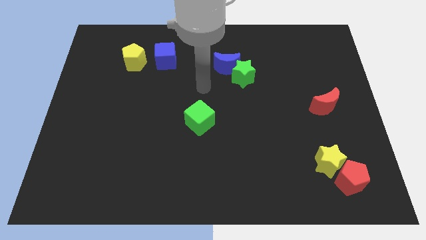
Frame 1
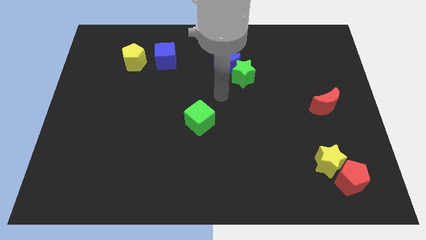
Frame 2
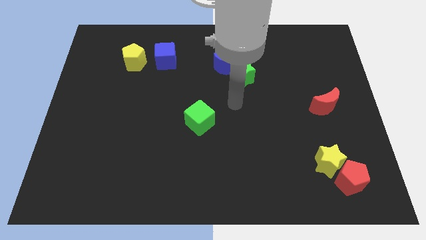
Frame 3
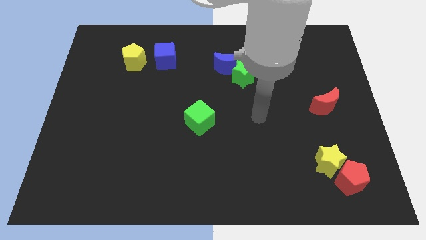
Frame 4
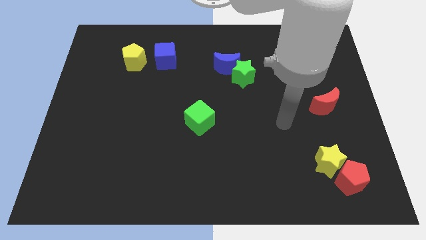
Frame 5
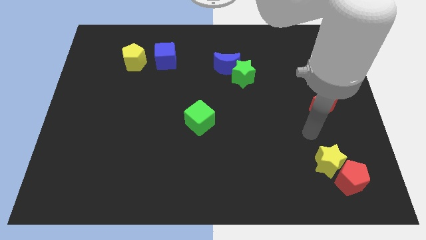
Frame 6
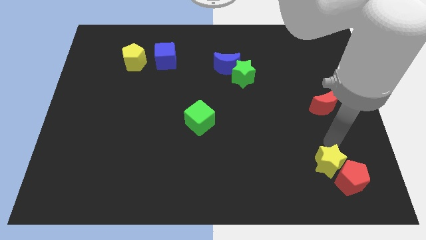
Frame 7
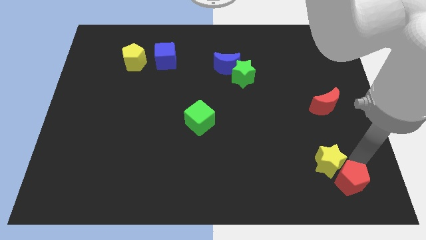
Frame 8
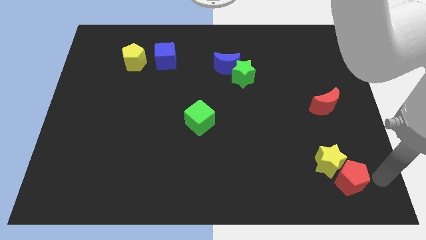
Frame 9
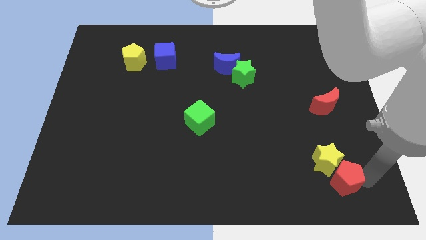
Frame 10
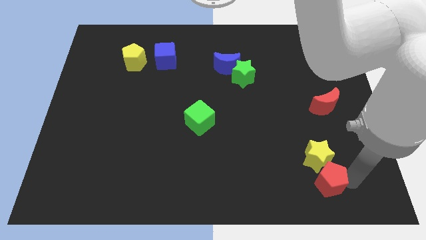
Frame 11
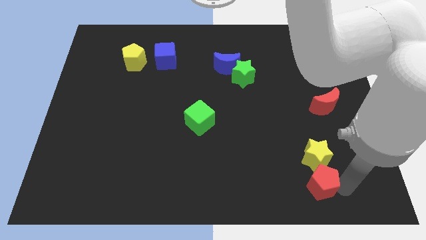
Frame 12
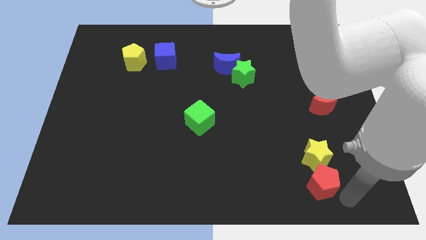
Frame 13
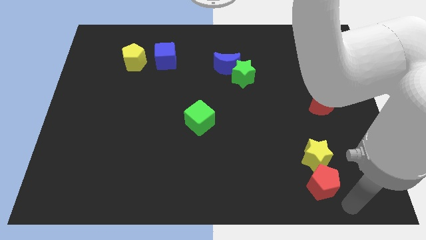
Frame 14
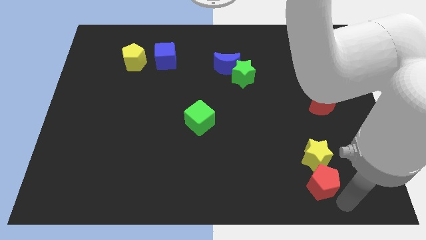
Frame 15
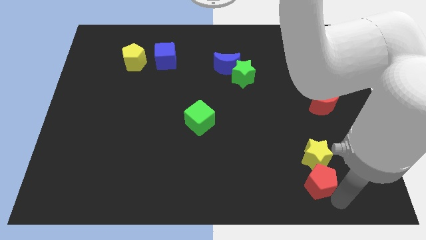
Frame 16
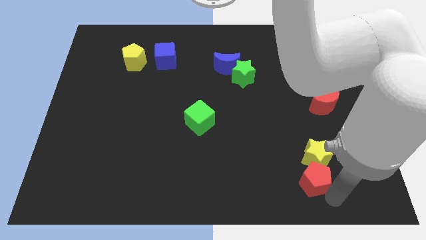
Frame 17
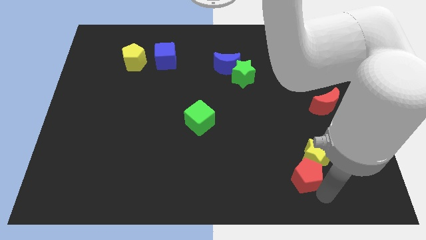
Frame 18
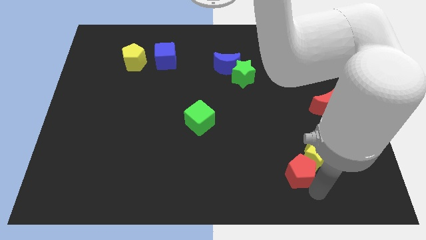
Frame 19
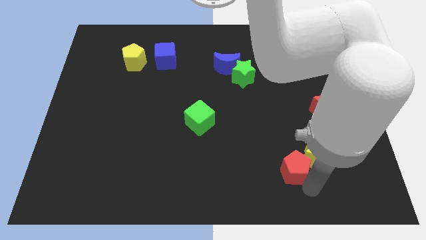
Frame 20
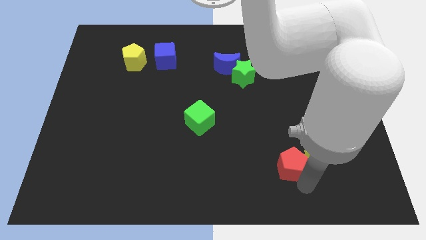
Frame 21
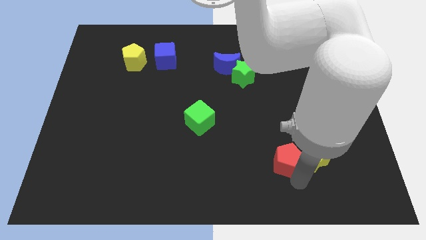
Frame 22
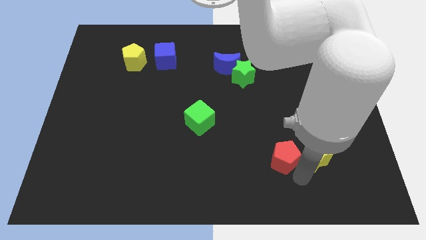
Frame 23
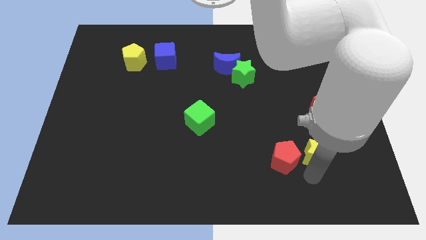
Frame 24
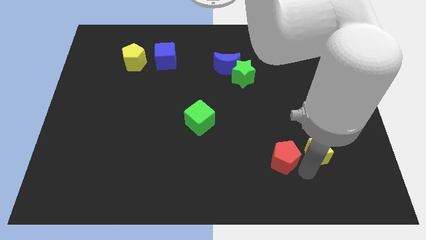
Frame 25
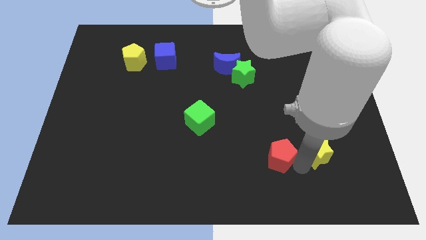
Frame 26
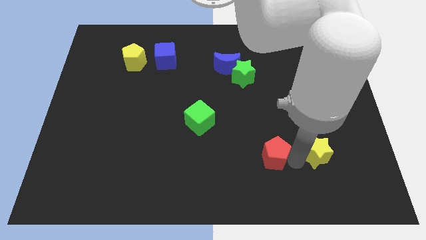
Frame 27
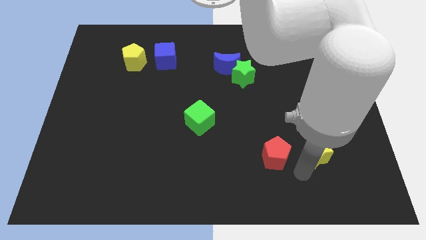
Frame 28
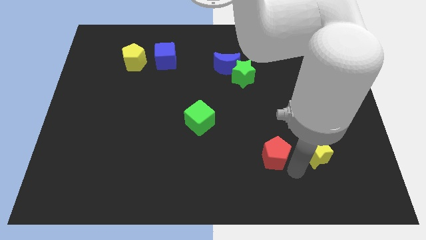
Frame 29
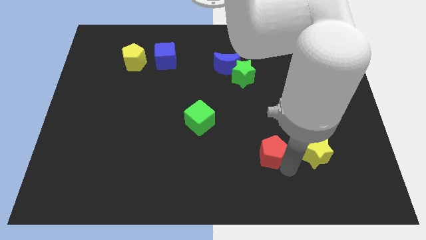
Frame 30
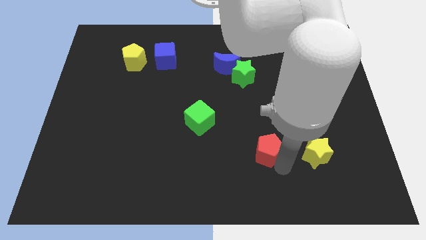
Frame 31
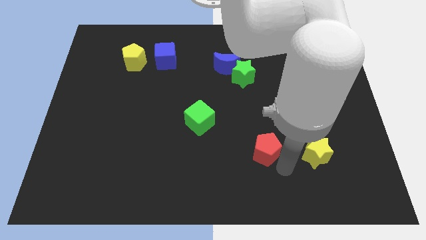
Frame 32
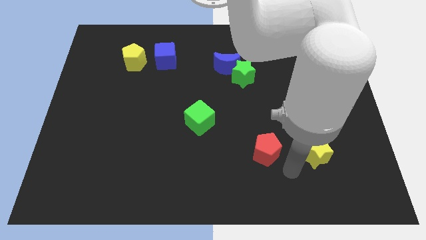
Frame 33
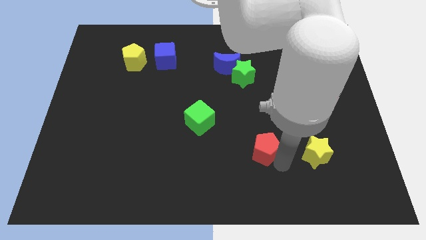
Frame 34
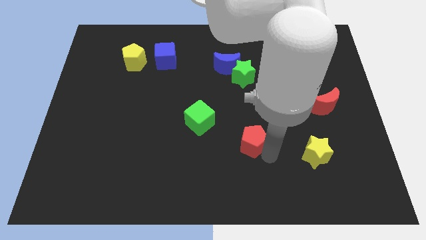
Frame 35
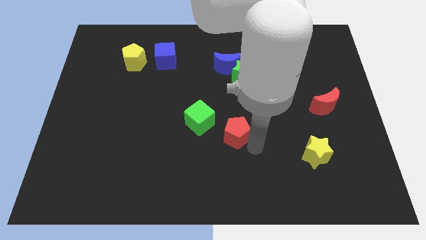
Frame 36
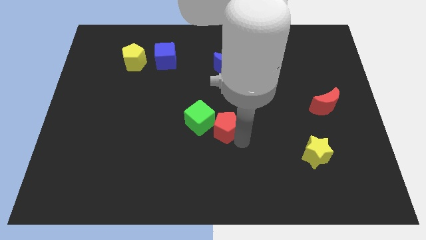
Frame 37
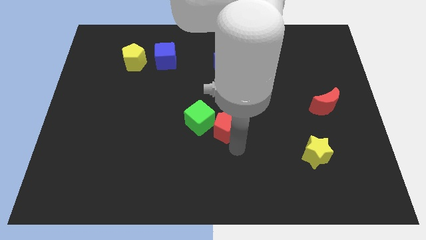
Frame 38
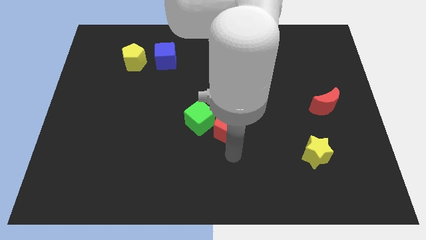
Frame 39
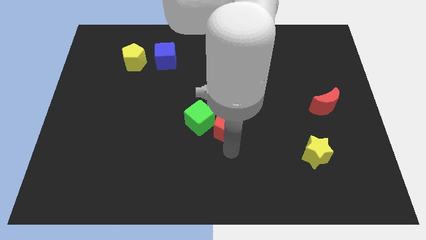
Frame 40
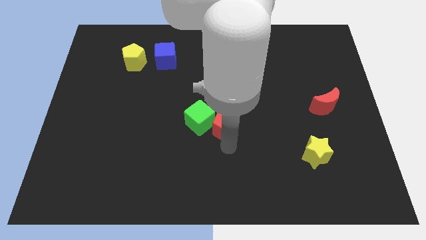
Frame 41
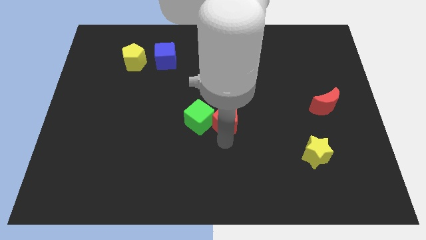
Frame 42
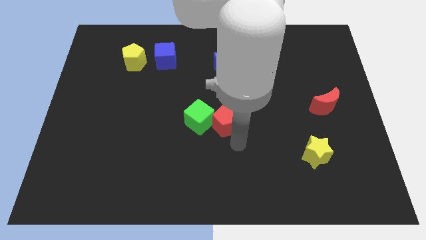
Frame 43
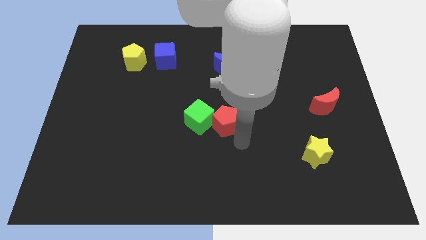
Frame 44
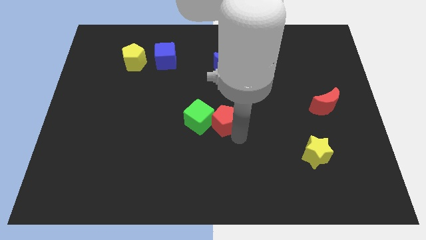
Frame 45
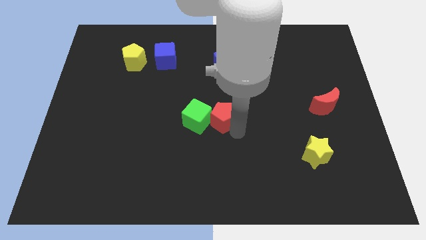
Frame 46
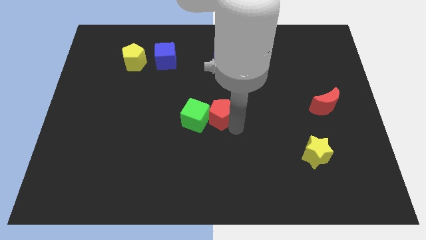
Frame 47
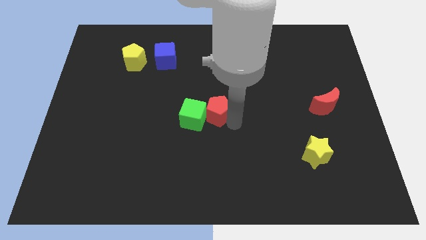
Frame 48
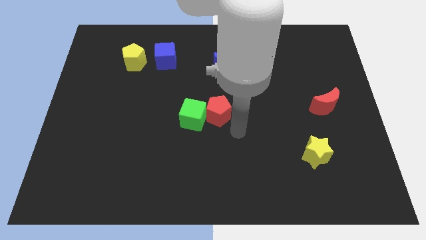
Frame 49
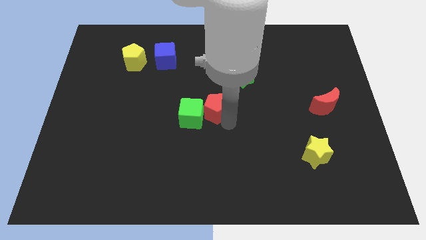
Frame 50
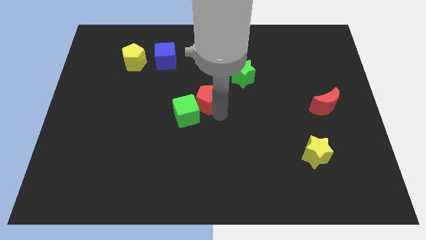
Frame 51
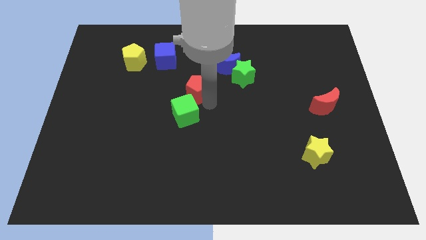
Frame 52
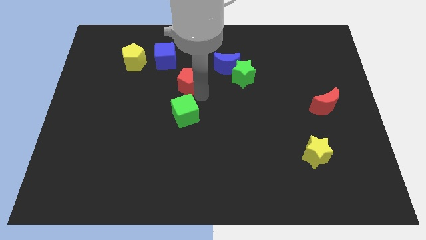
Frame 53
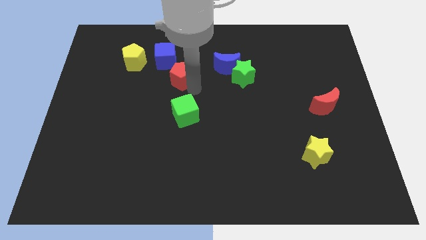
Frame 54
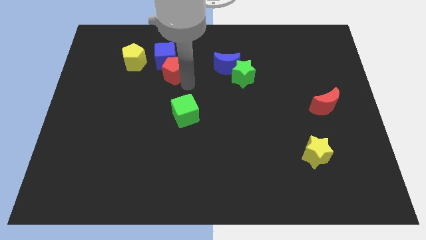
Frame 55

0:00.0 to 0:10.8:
push the red pentagon towards the blue cube

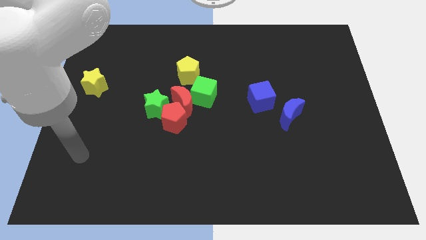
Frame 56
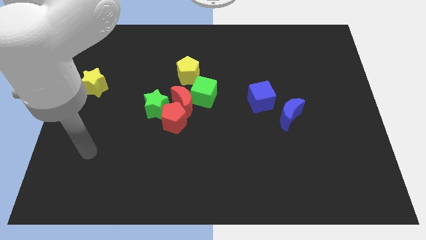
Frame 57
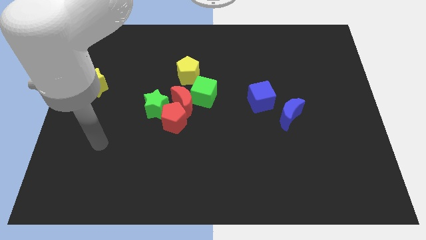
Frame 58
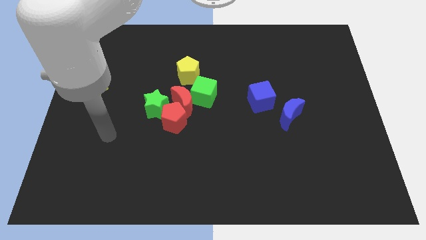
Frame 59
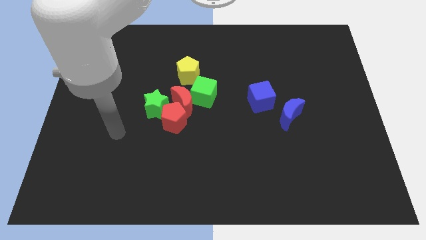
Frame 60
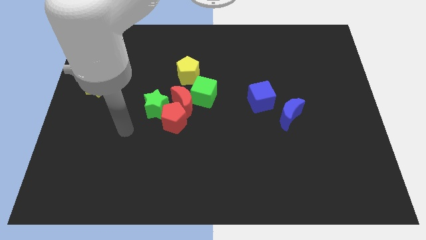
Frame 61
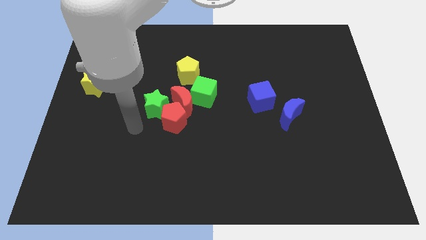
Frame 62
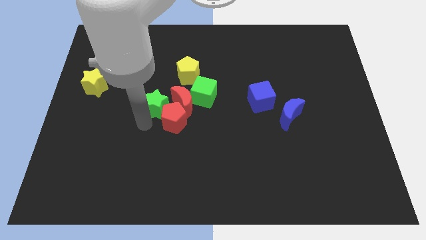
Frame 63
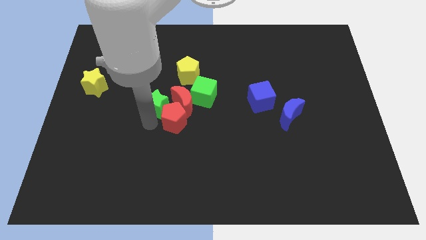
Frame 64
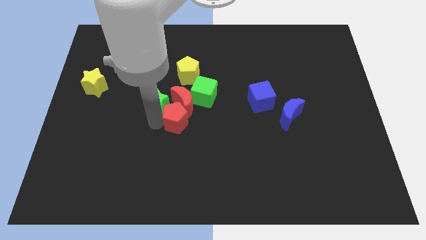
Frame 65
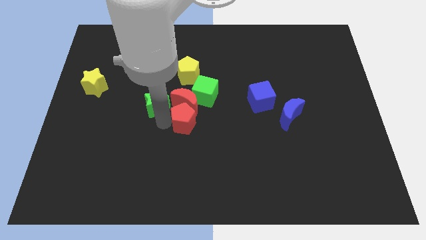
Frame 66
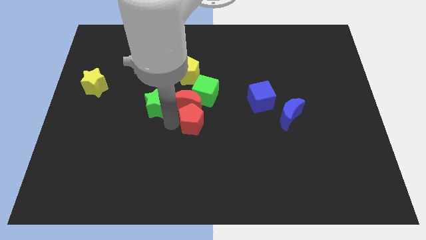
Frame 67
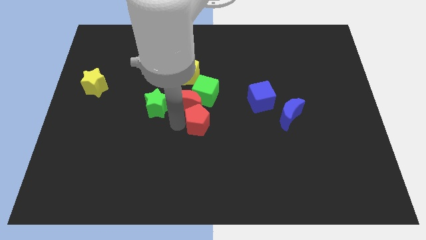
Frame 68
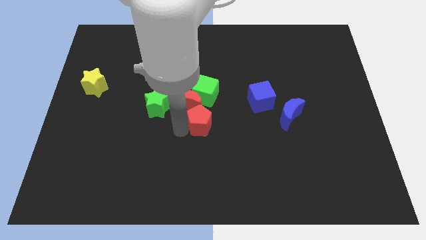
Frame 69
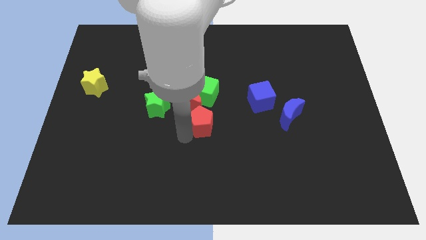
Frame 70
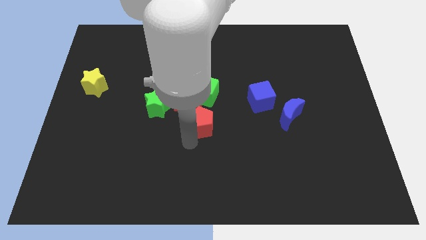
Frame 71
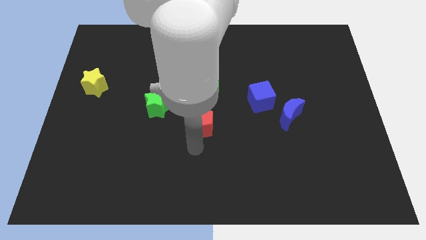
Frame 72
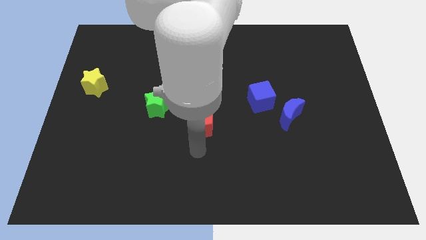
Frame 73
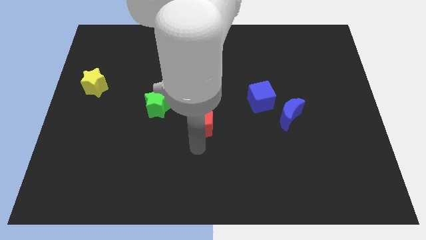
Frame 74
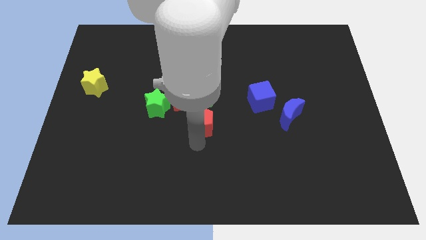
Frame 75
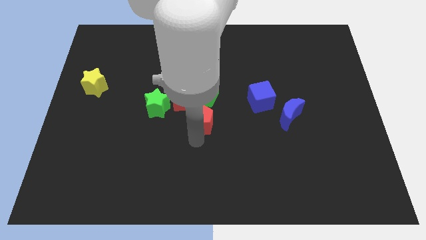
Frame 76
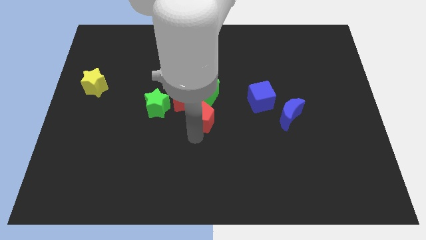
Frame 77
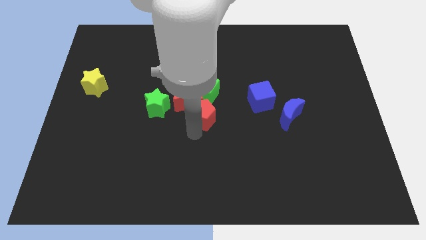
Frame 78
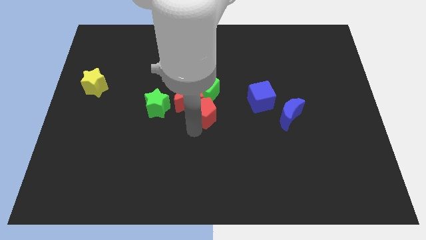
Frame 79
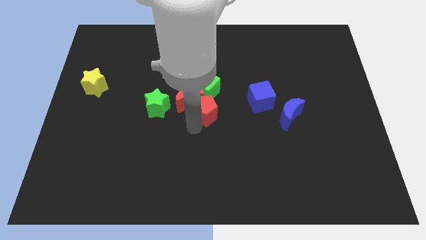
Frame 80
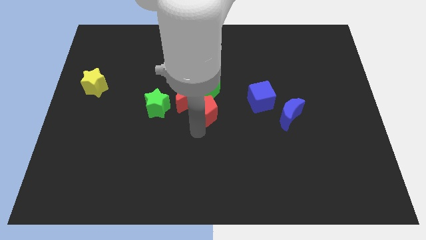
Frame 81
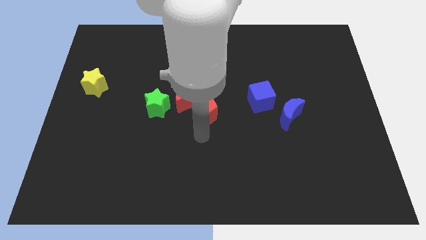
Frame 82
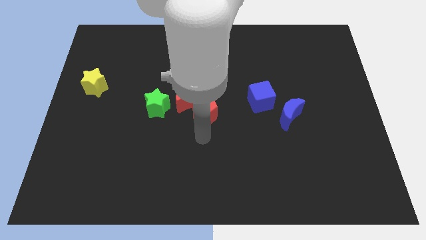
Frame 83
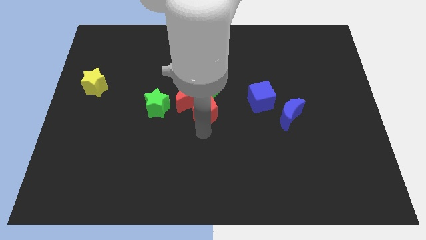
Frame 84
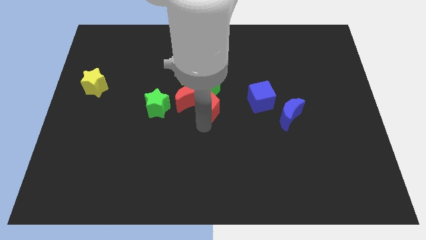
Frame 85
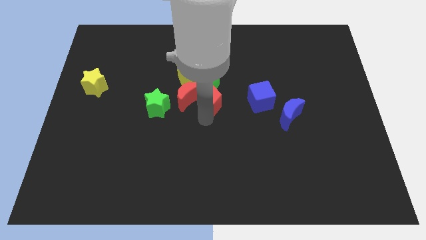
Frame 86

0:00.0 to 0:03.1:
put the red pentagon to the green cube
